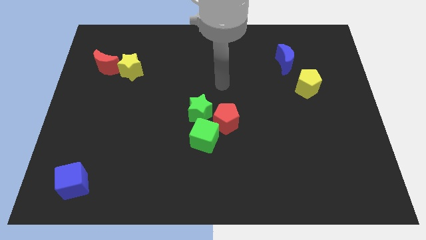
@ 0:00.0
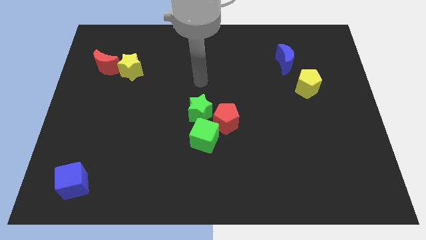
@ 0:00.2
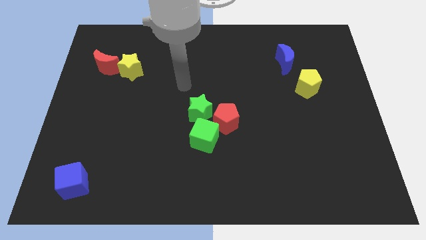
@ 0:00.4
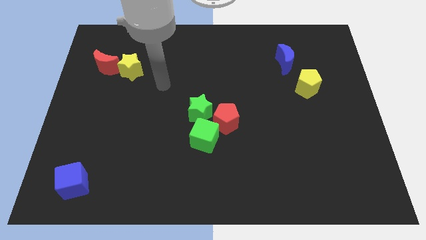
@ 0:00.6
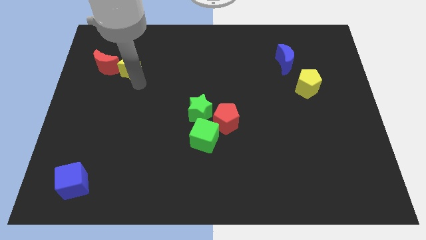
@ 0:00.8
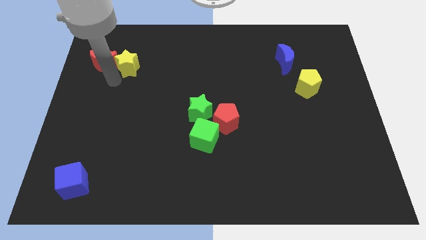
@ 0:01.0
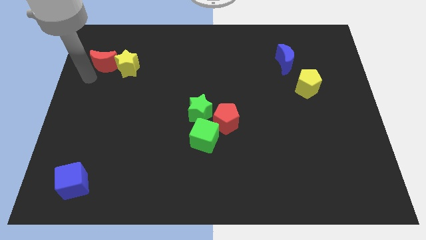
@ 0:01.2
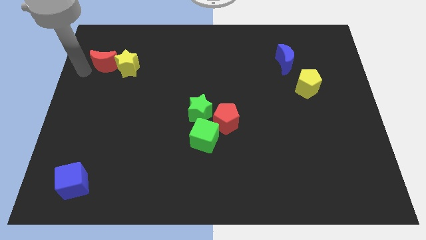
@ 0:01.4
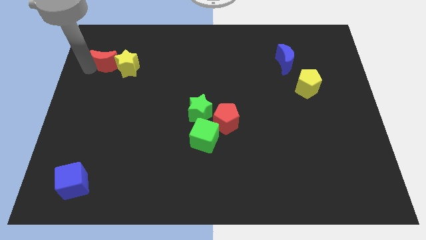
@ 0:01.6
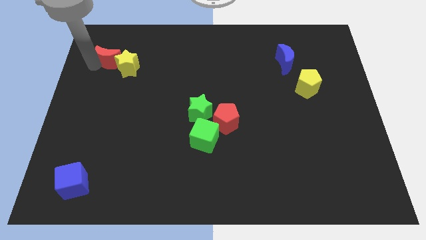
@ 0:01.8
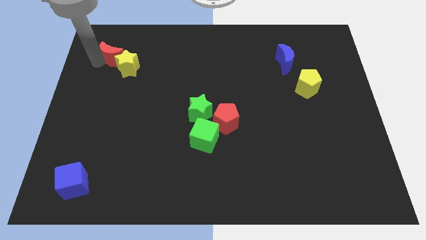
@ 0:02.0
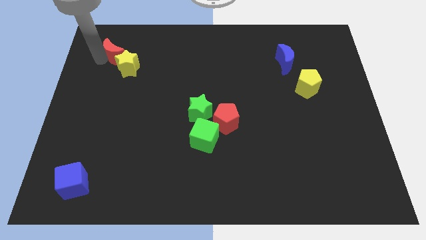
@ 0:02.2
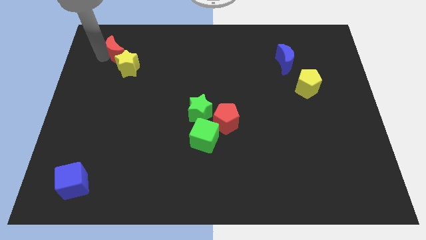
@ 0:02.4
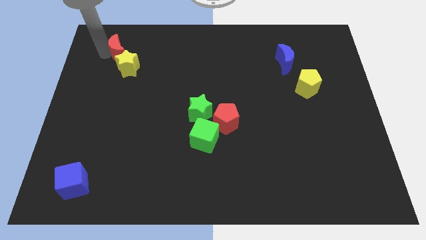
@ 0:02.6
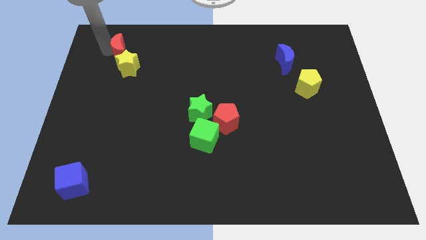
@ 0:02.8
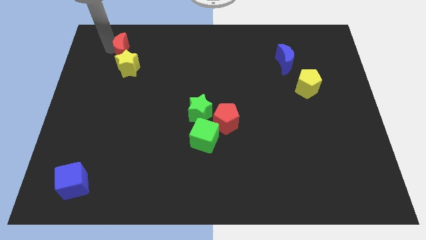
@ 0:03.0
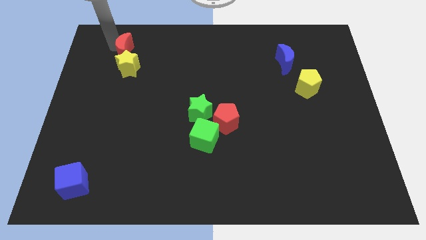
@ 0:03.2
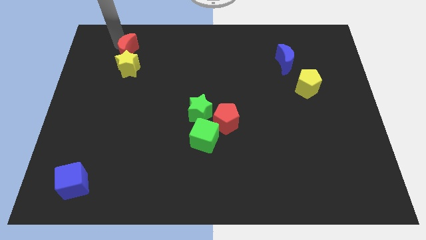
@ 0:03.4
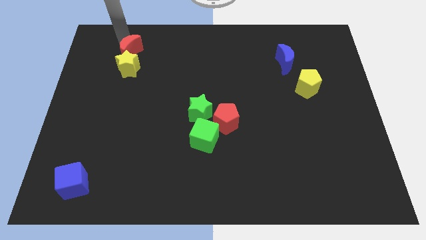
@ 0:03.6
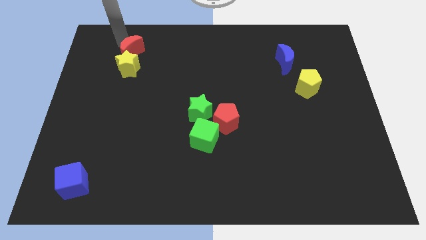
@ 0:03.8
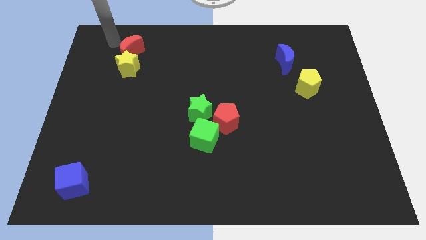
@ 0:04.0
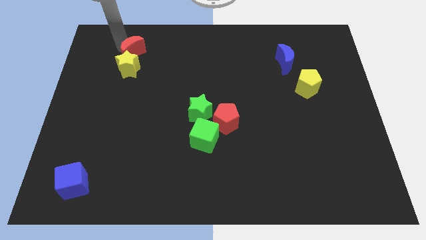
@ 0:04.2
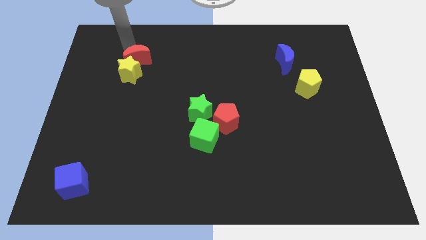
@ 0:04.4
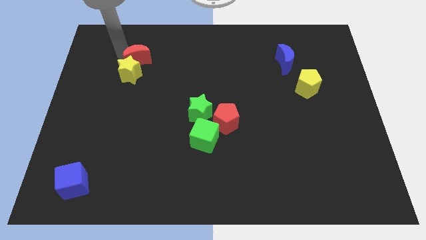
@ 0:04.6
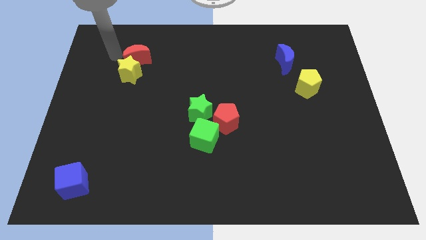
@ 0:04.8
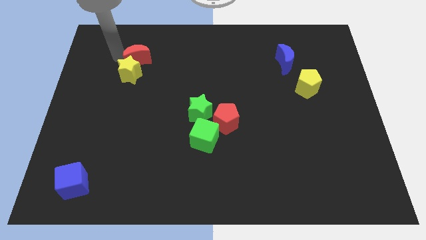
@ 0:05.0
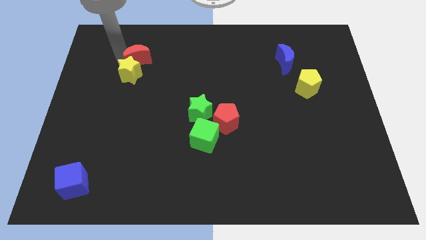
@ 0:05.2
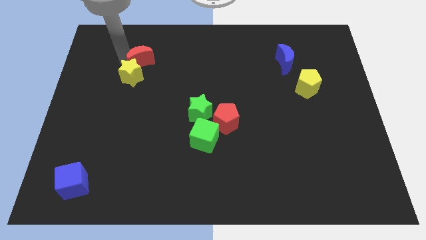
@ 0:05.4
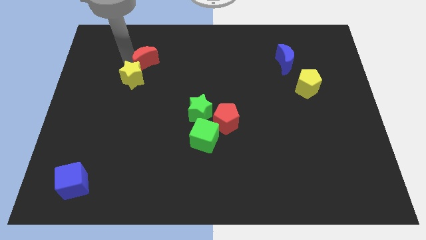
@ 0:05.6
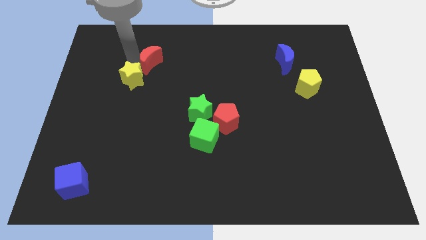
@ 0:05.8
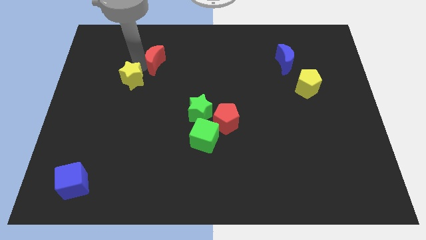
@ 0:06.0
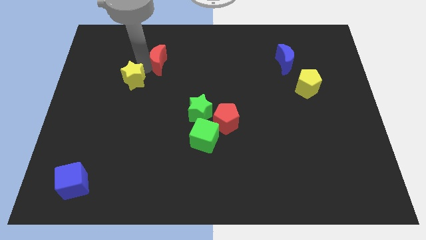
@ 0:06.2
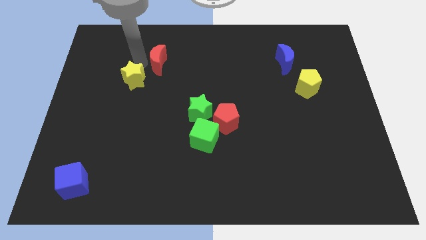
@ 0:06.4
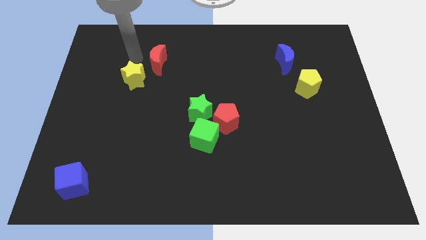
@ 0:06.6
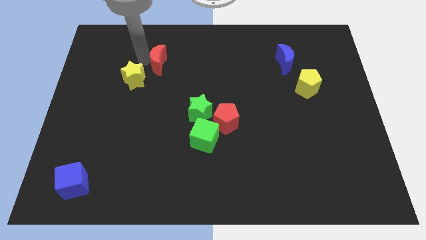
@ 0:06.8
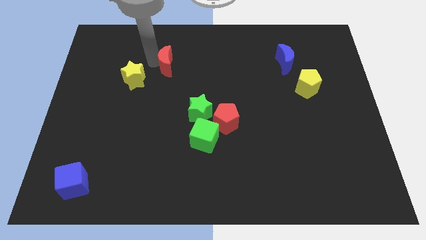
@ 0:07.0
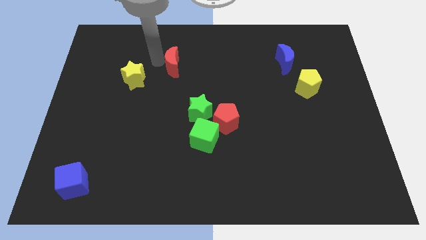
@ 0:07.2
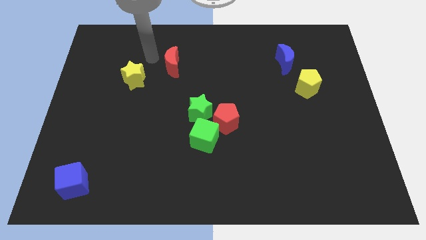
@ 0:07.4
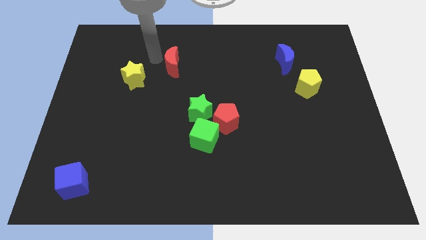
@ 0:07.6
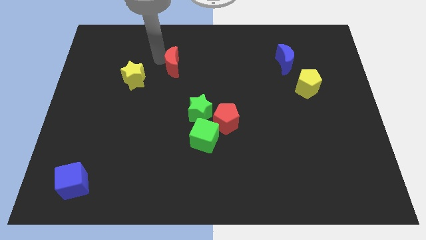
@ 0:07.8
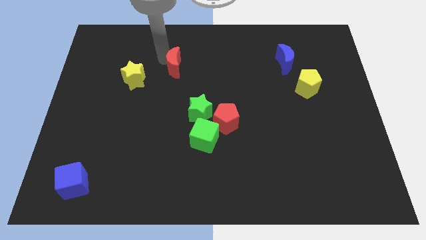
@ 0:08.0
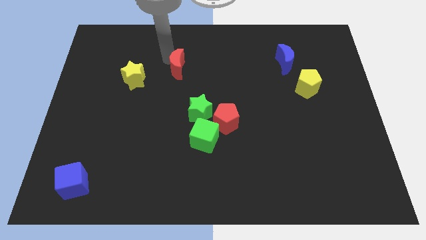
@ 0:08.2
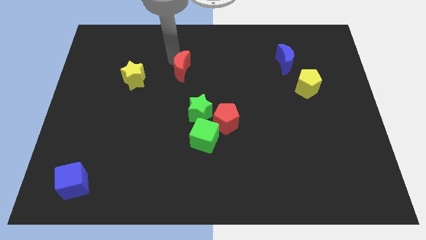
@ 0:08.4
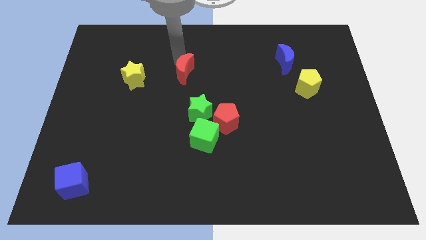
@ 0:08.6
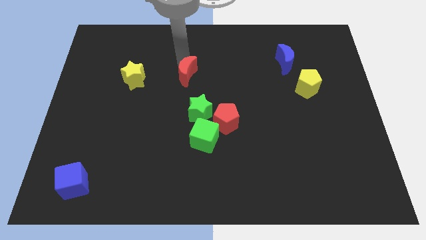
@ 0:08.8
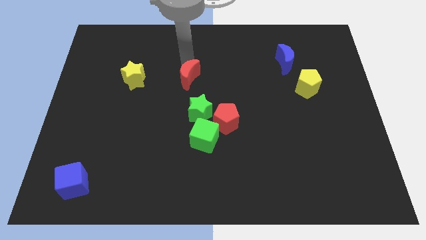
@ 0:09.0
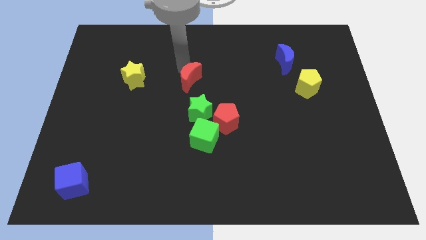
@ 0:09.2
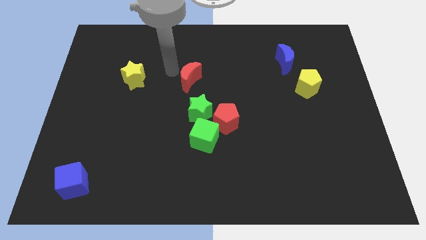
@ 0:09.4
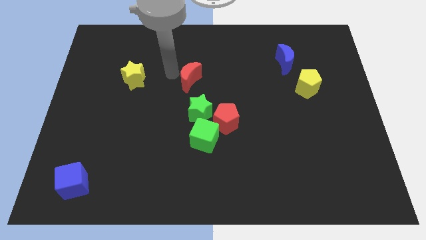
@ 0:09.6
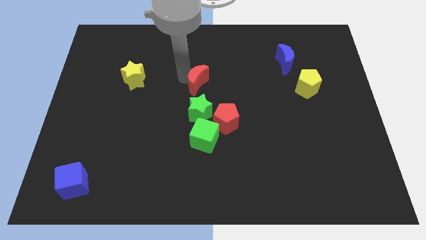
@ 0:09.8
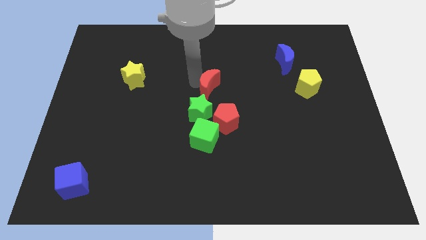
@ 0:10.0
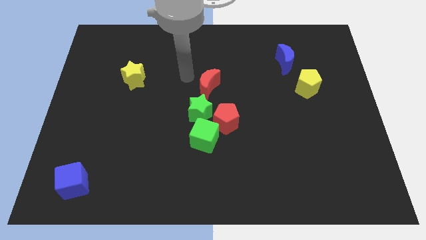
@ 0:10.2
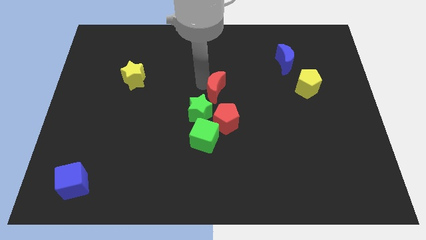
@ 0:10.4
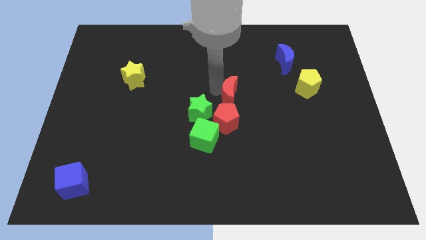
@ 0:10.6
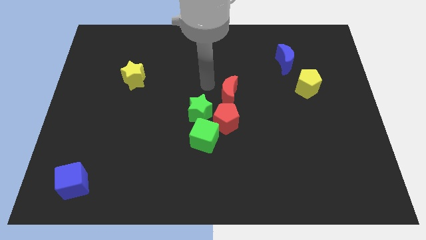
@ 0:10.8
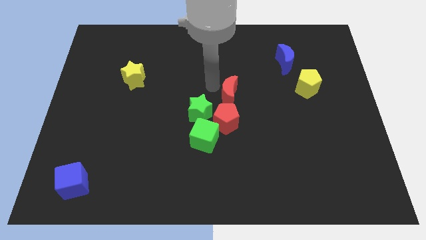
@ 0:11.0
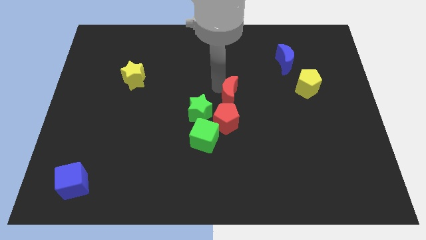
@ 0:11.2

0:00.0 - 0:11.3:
move the red moon to the top right side of the red pentagon

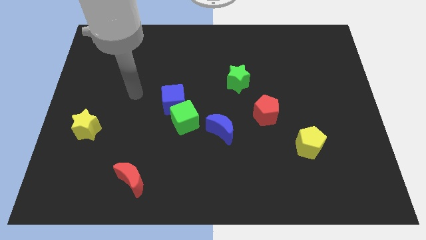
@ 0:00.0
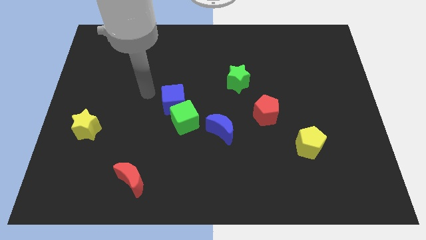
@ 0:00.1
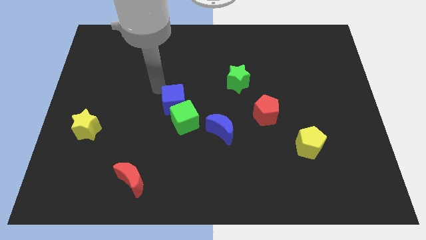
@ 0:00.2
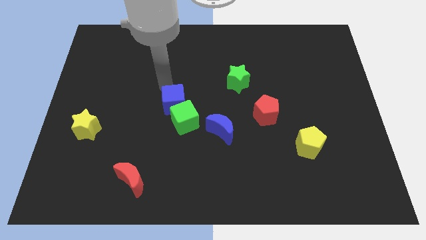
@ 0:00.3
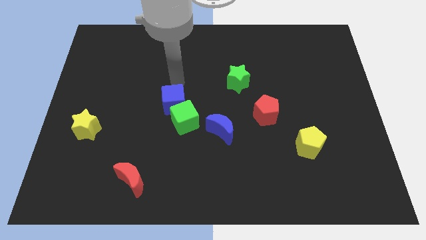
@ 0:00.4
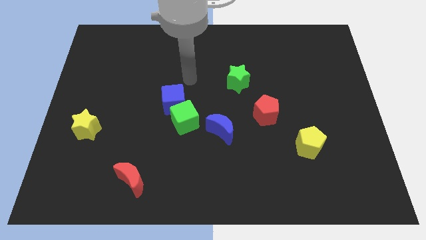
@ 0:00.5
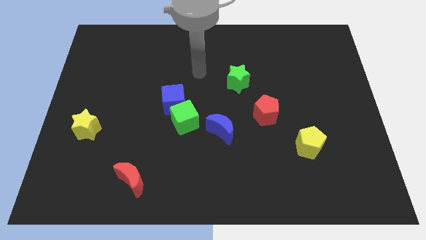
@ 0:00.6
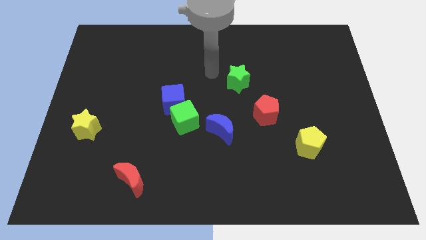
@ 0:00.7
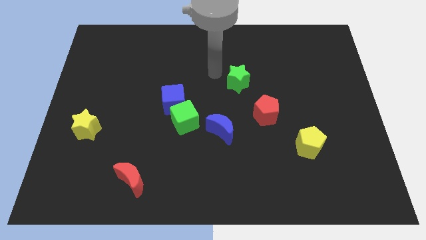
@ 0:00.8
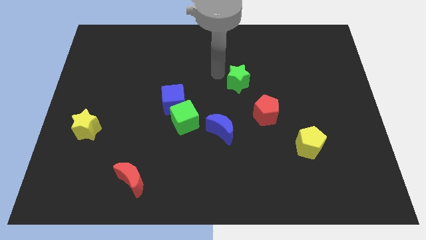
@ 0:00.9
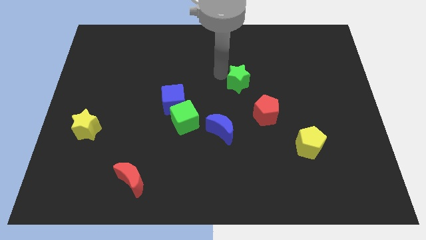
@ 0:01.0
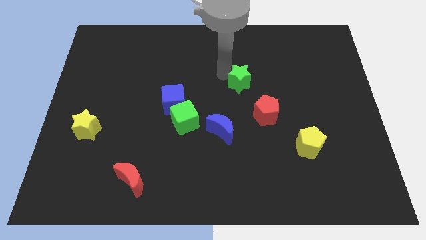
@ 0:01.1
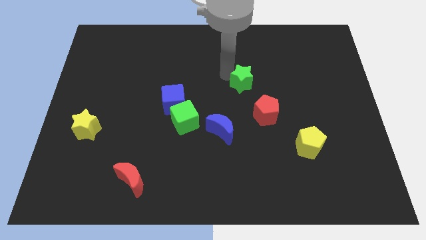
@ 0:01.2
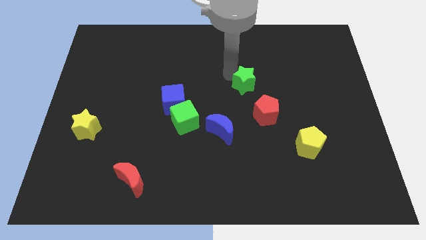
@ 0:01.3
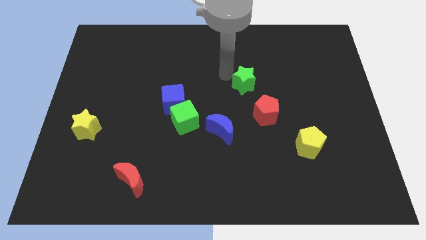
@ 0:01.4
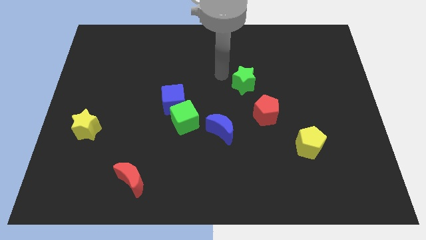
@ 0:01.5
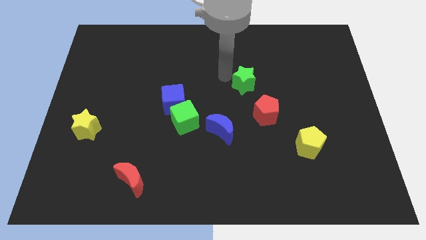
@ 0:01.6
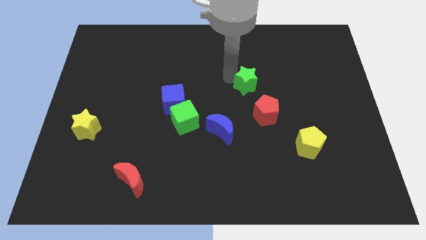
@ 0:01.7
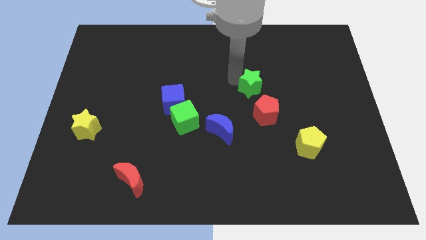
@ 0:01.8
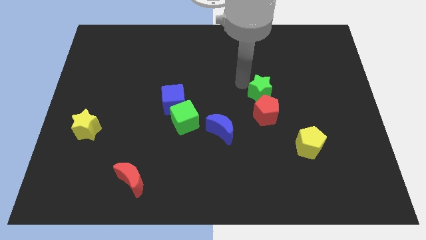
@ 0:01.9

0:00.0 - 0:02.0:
move the green star to the top right of the red pentagon
